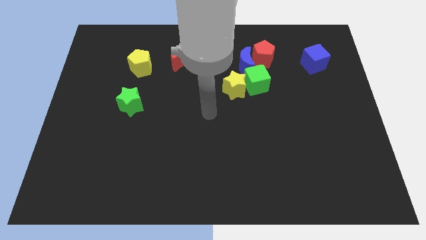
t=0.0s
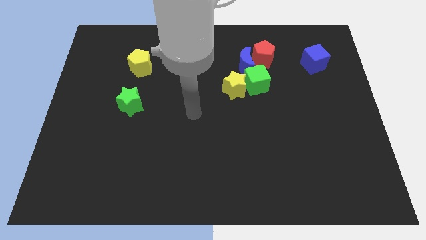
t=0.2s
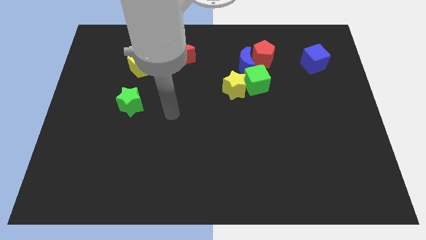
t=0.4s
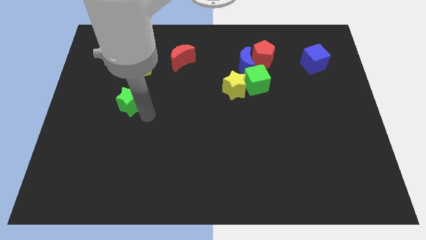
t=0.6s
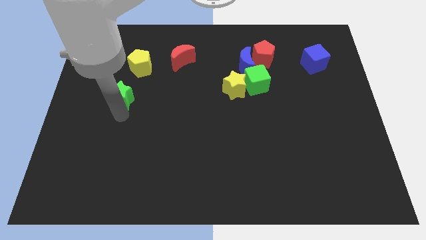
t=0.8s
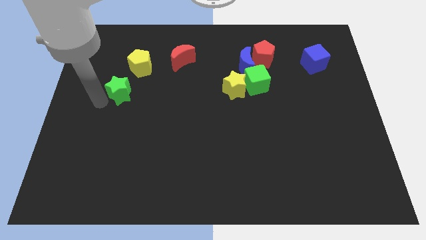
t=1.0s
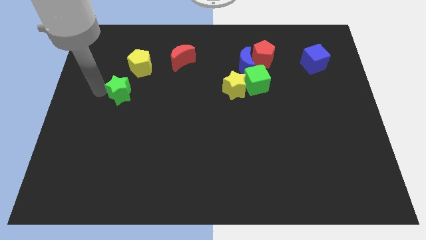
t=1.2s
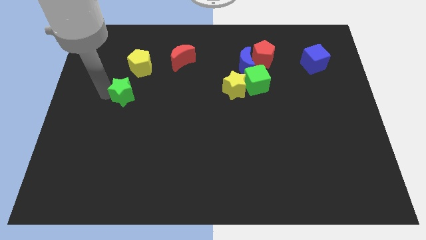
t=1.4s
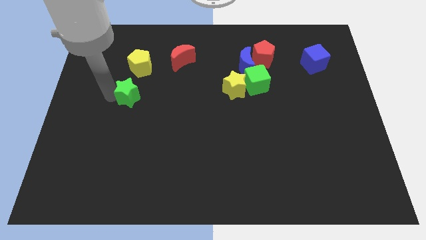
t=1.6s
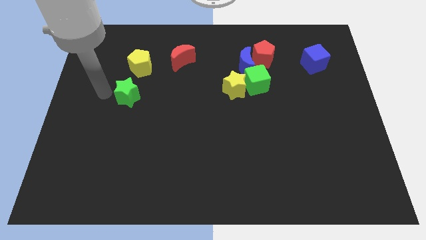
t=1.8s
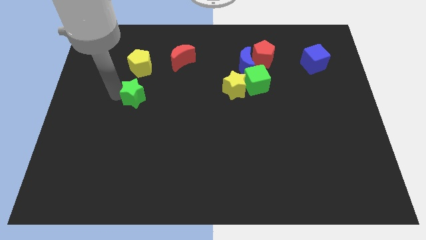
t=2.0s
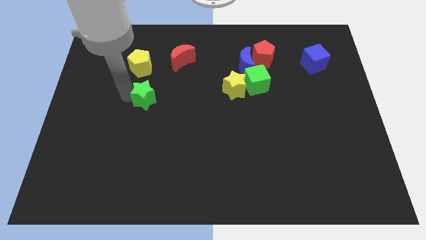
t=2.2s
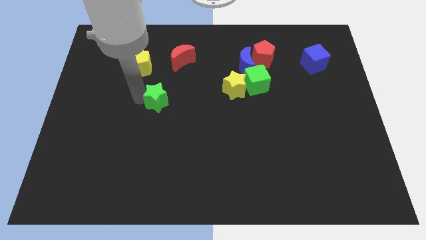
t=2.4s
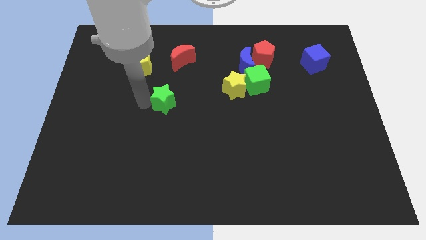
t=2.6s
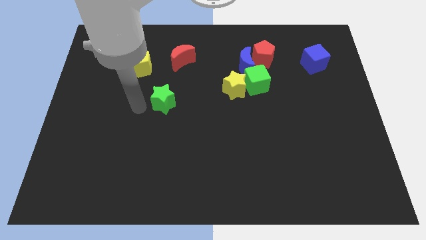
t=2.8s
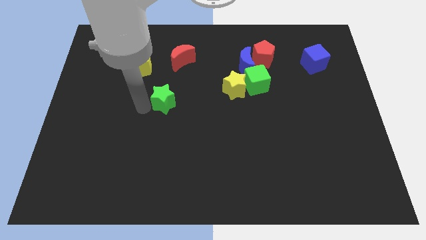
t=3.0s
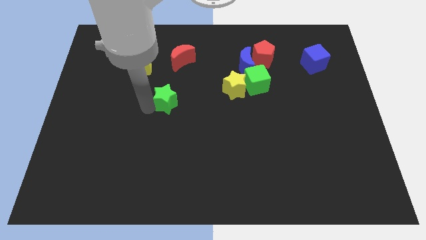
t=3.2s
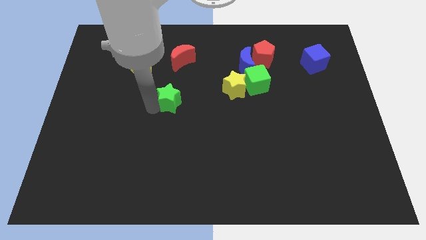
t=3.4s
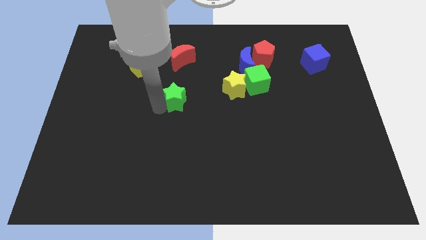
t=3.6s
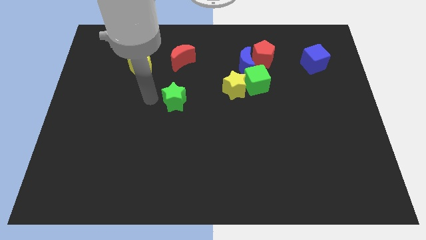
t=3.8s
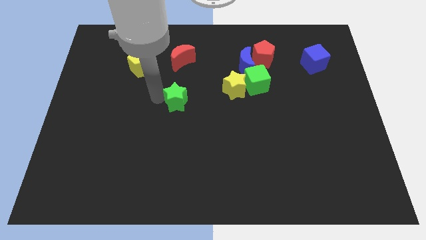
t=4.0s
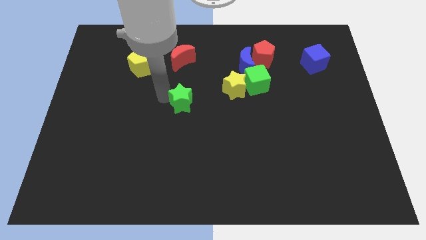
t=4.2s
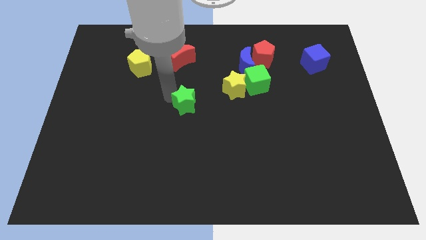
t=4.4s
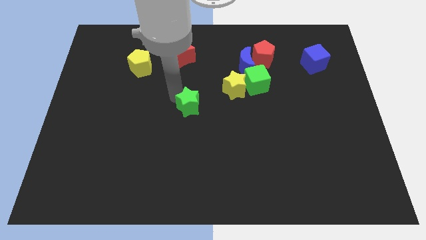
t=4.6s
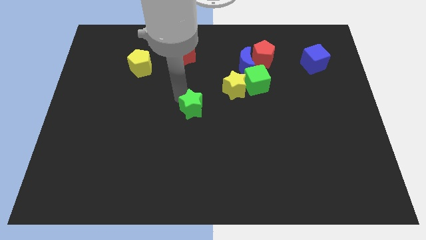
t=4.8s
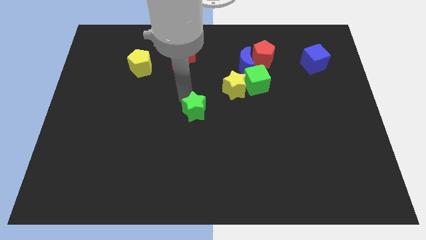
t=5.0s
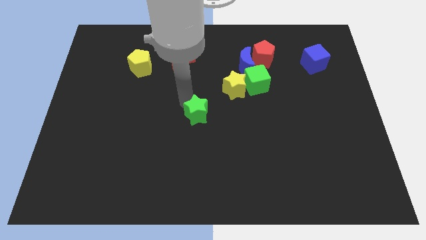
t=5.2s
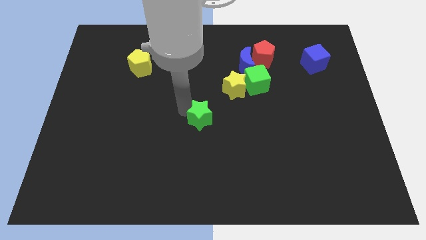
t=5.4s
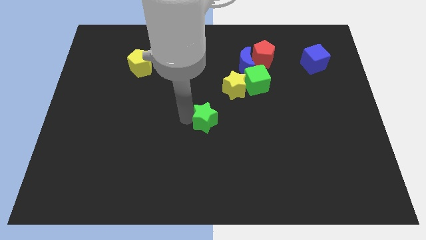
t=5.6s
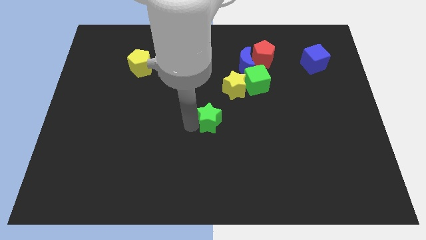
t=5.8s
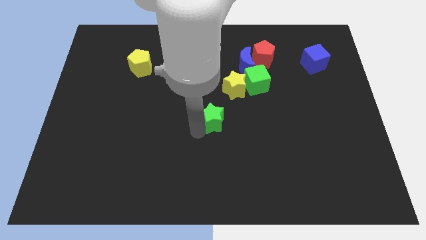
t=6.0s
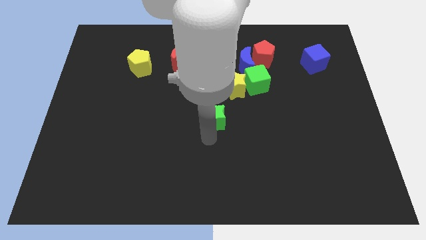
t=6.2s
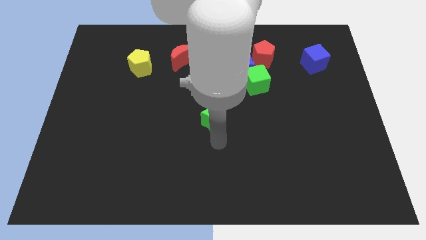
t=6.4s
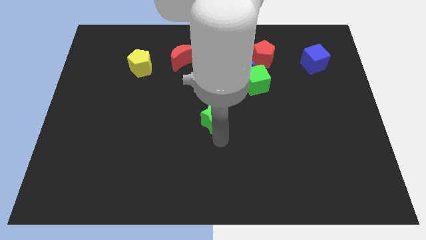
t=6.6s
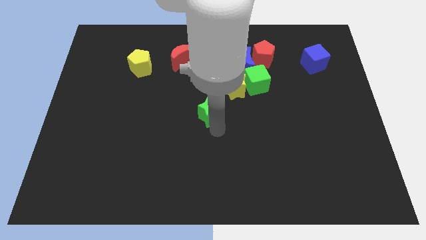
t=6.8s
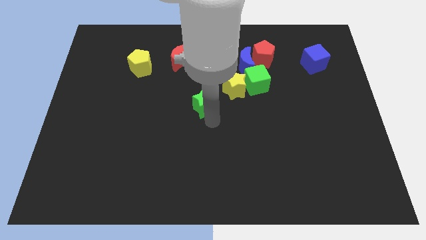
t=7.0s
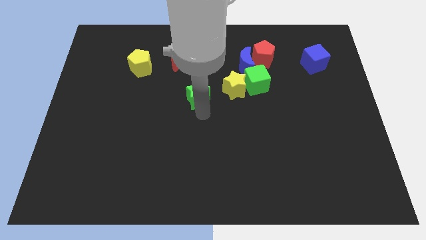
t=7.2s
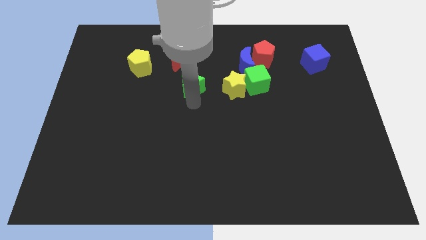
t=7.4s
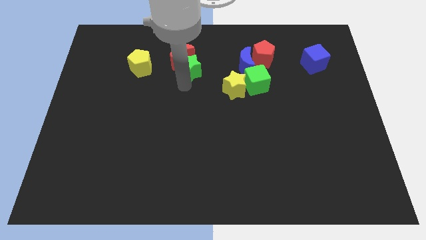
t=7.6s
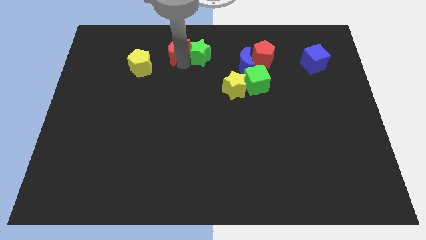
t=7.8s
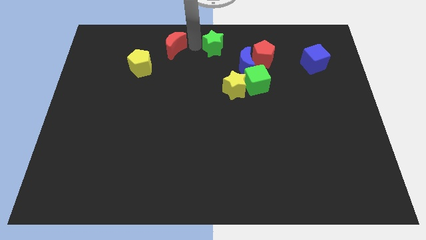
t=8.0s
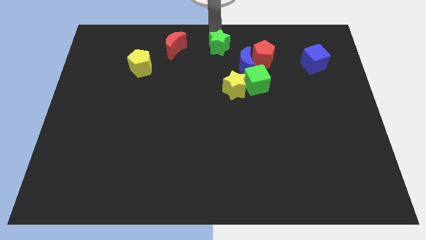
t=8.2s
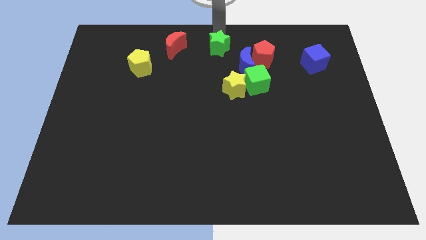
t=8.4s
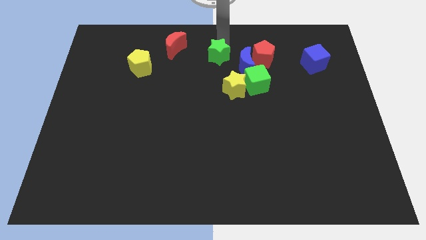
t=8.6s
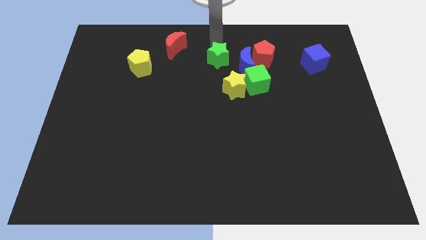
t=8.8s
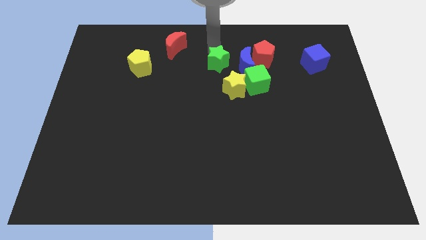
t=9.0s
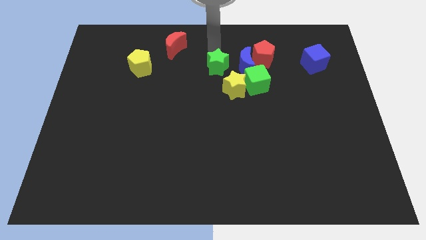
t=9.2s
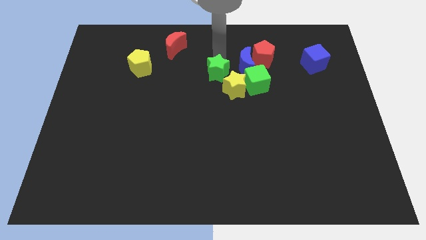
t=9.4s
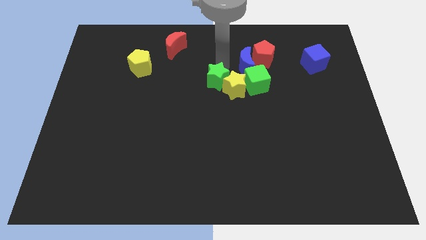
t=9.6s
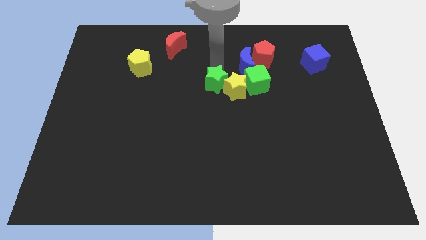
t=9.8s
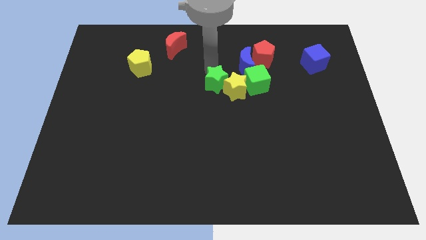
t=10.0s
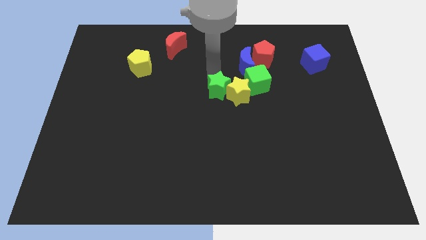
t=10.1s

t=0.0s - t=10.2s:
move the green star right

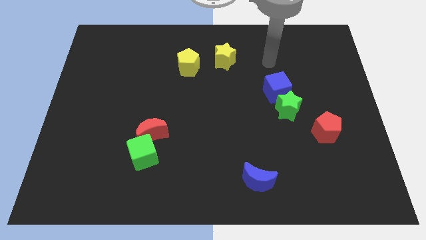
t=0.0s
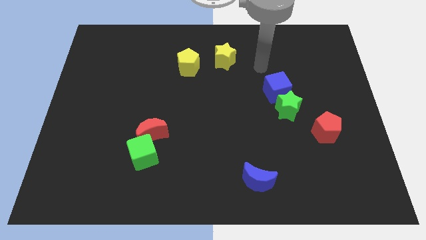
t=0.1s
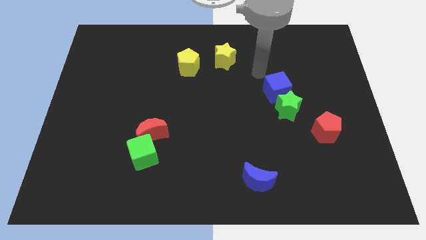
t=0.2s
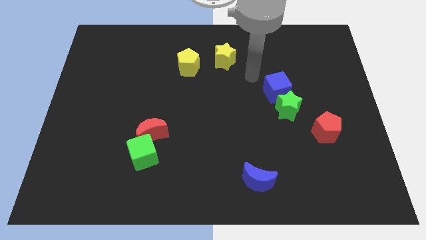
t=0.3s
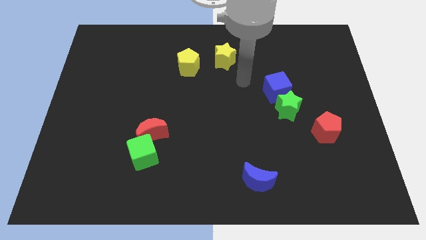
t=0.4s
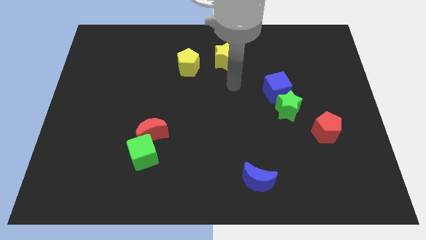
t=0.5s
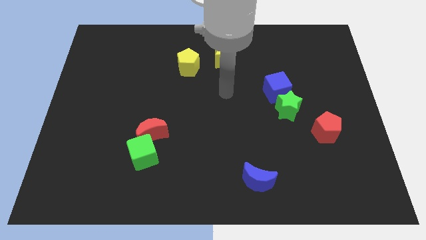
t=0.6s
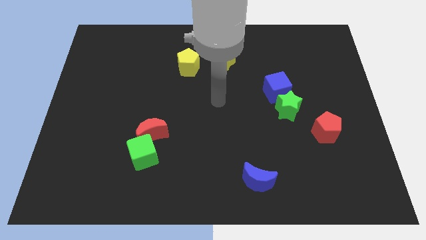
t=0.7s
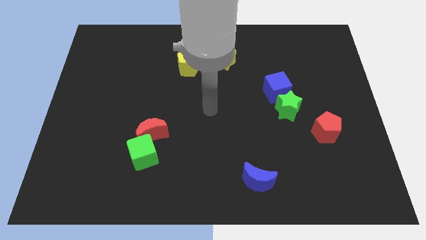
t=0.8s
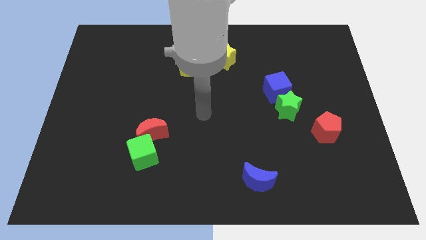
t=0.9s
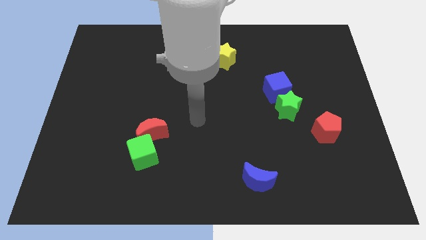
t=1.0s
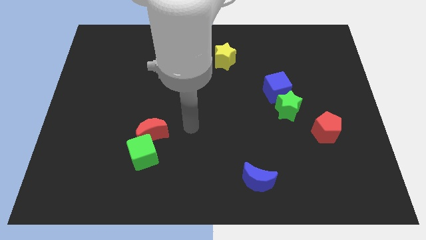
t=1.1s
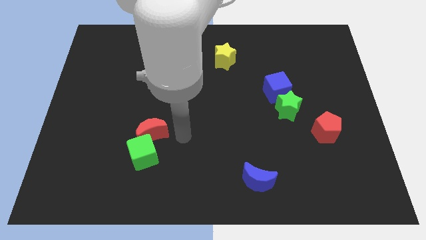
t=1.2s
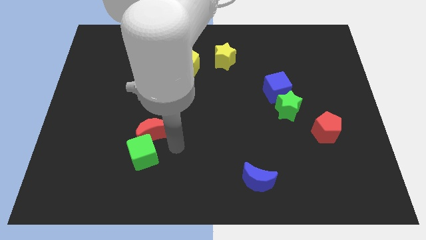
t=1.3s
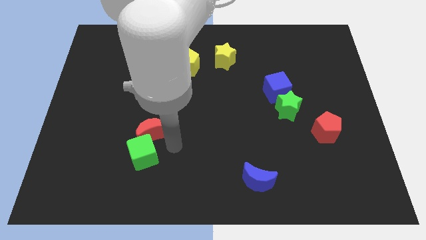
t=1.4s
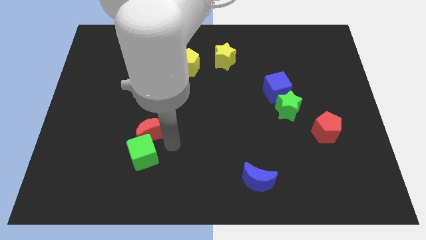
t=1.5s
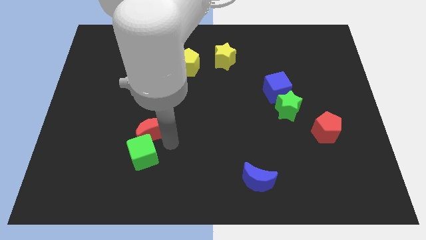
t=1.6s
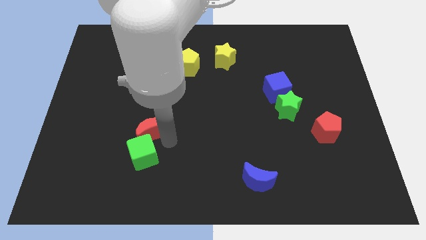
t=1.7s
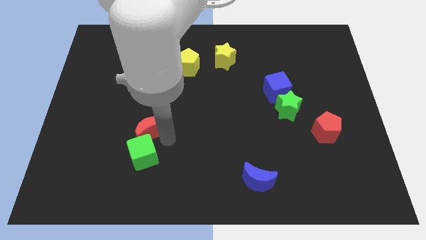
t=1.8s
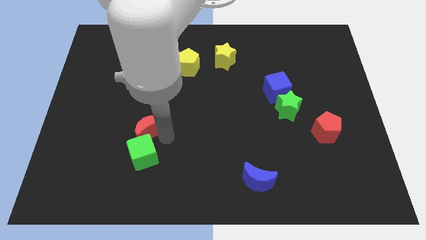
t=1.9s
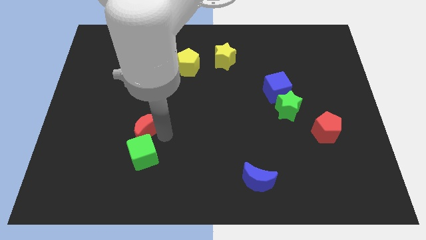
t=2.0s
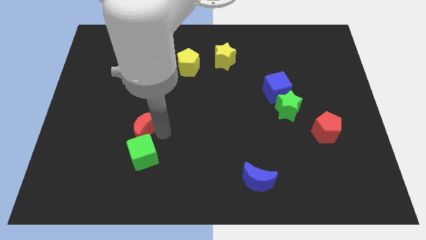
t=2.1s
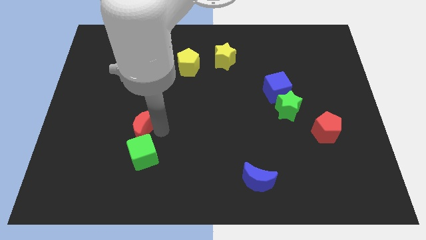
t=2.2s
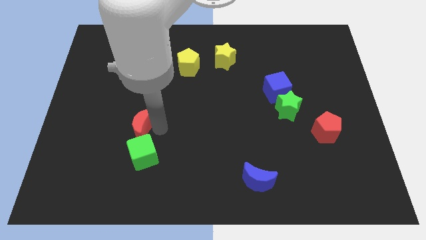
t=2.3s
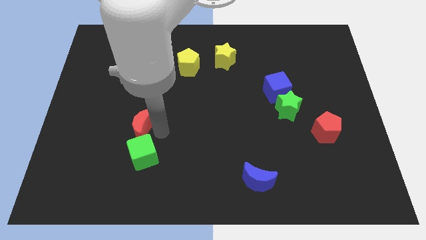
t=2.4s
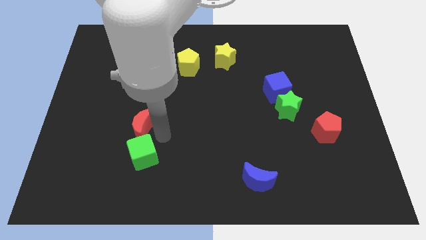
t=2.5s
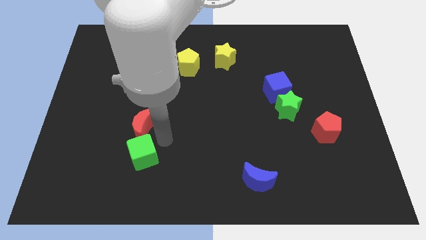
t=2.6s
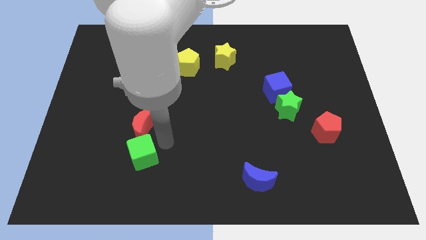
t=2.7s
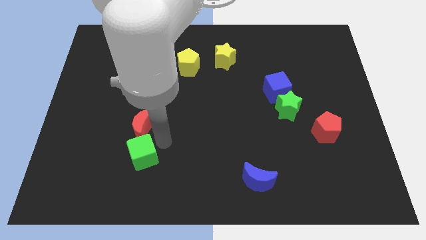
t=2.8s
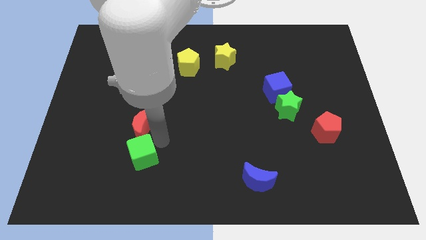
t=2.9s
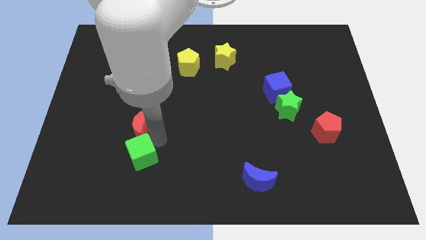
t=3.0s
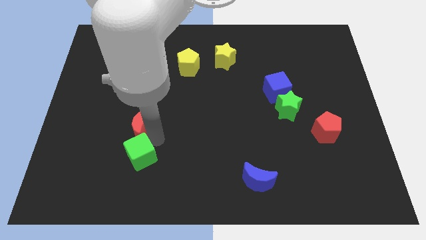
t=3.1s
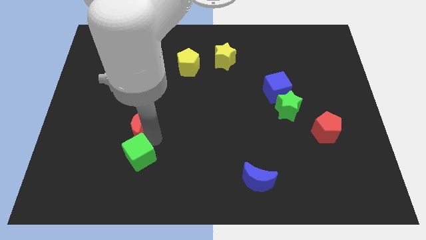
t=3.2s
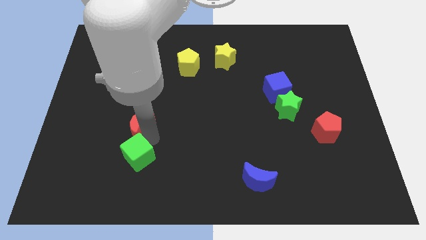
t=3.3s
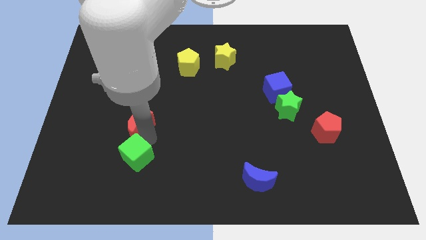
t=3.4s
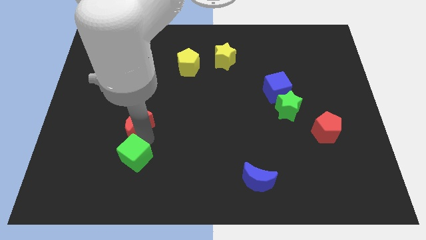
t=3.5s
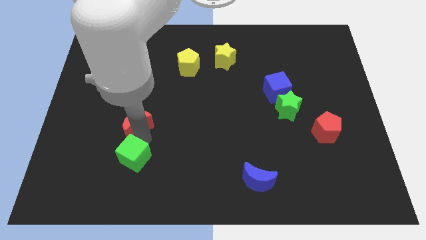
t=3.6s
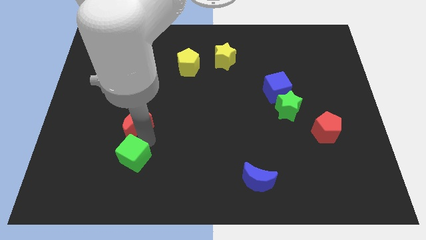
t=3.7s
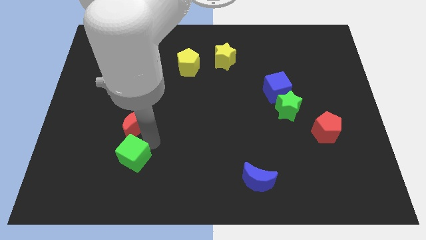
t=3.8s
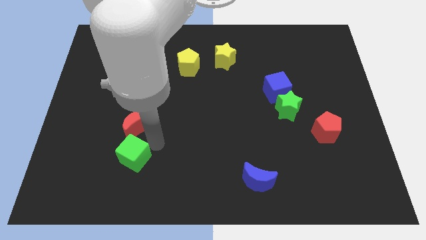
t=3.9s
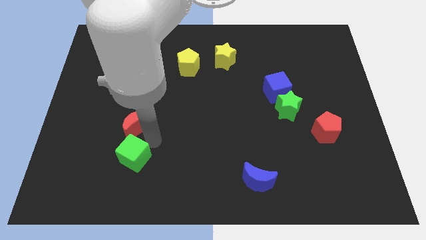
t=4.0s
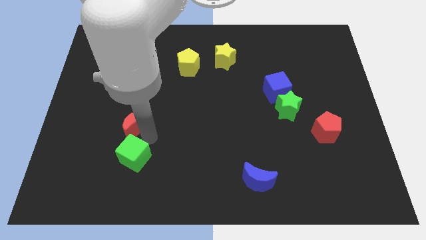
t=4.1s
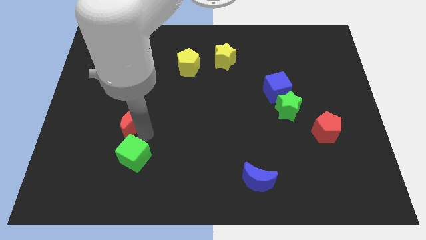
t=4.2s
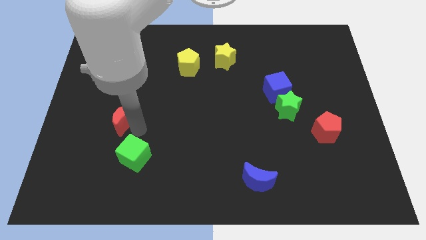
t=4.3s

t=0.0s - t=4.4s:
slightly push the red moon upwards and left
